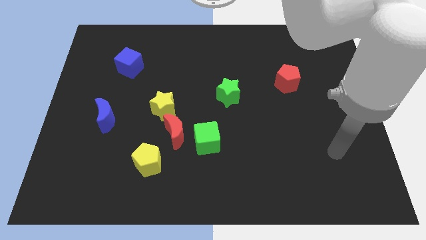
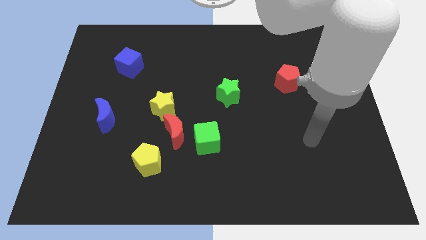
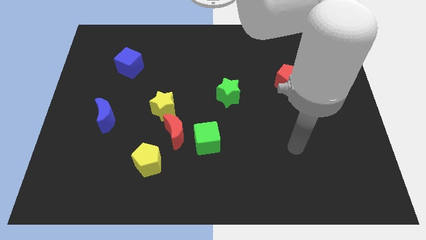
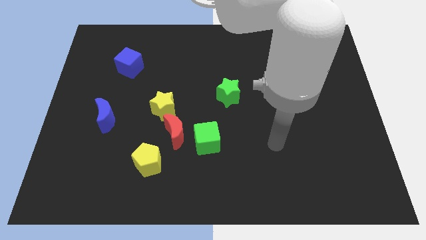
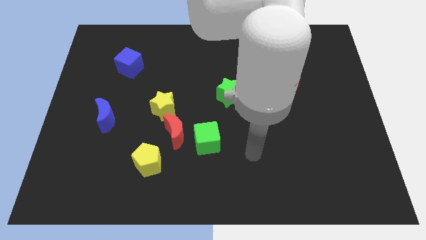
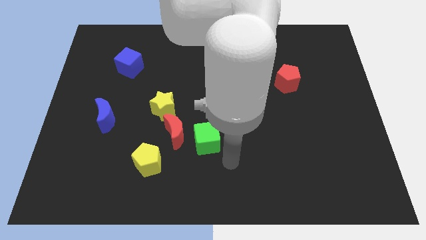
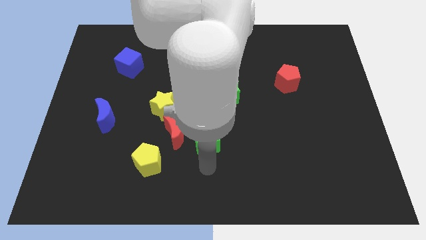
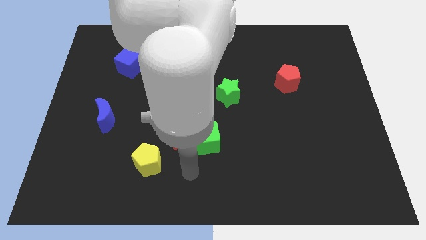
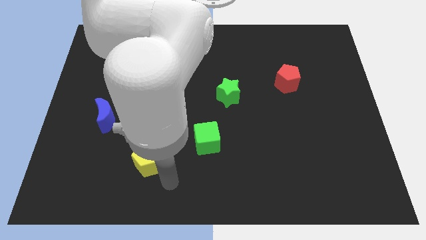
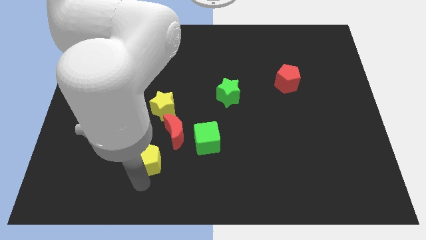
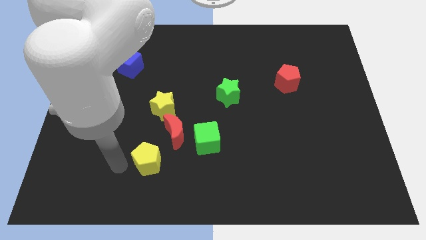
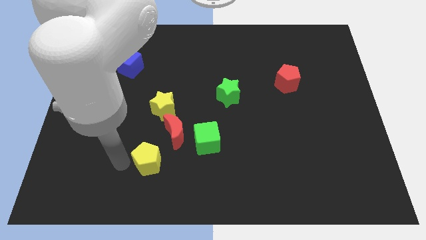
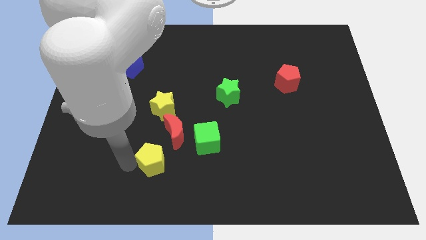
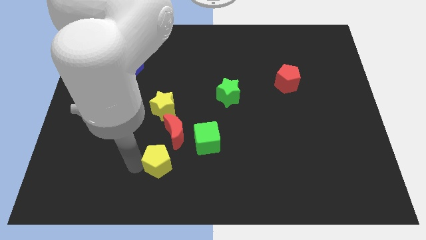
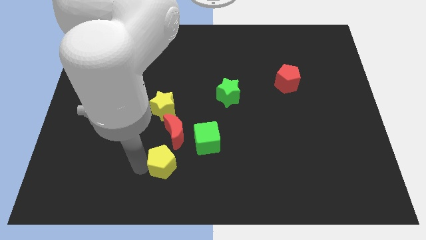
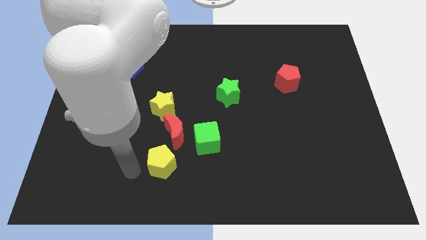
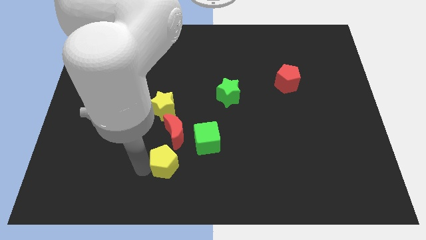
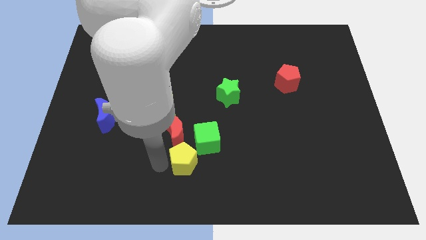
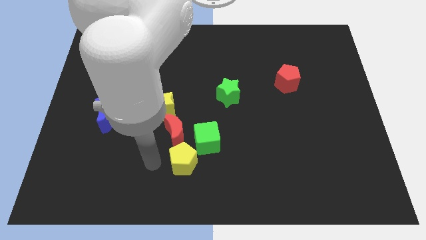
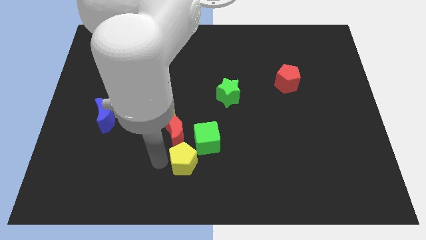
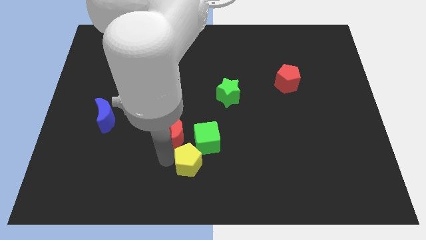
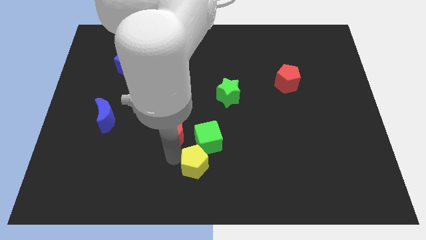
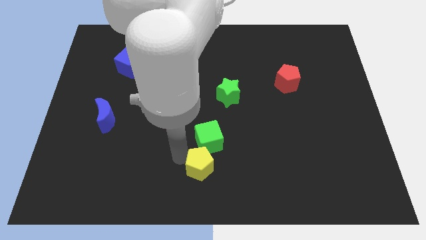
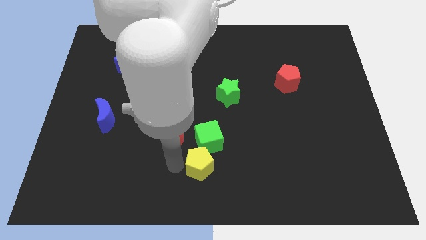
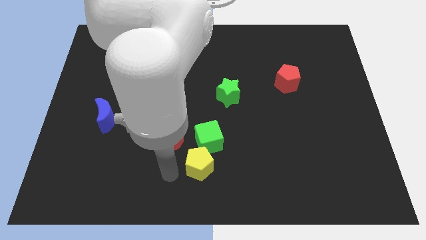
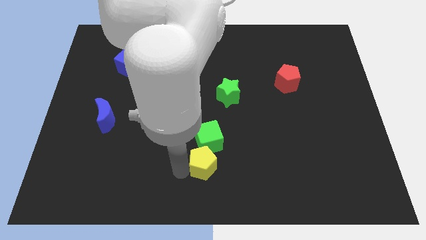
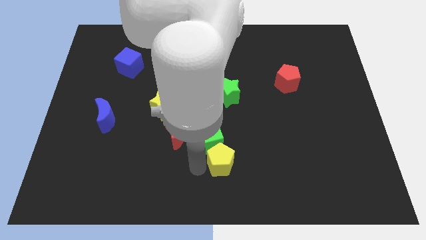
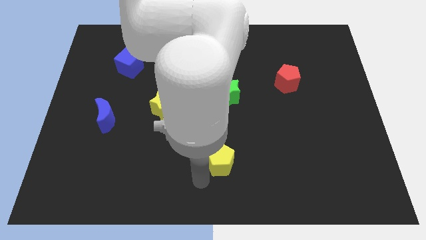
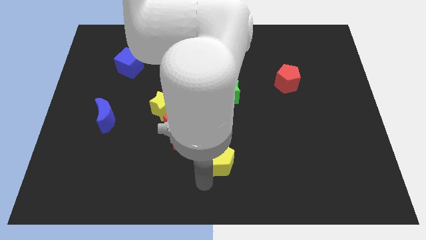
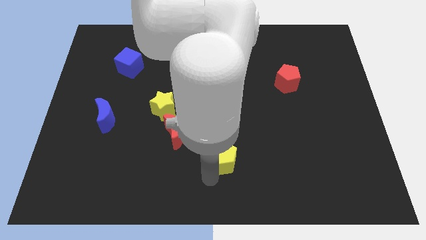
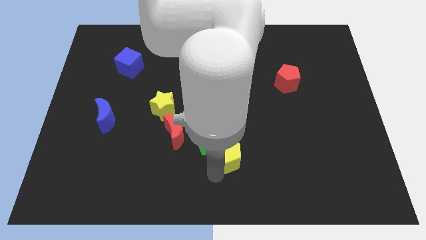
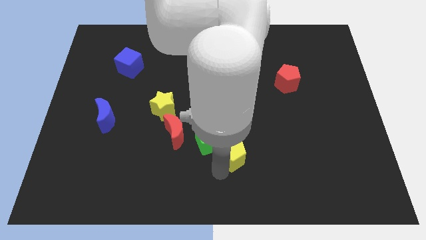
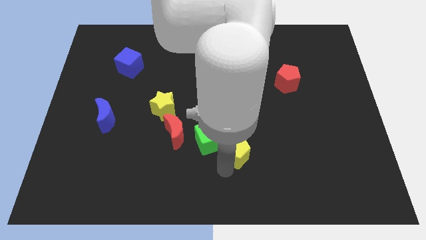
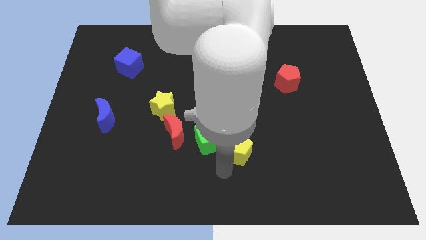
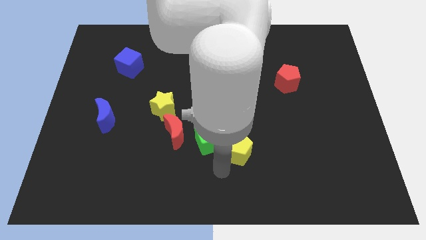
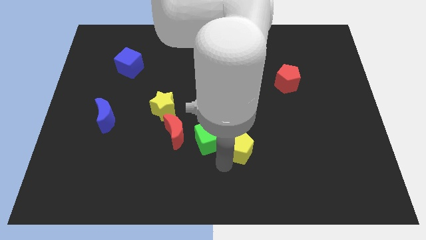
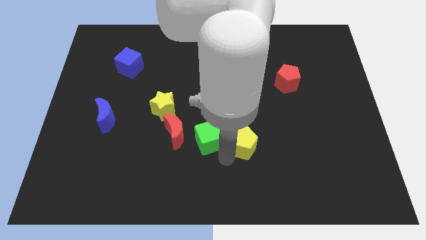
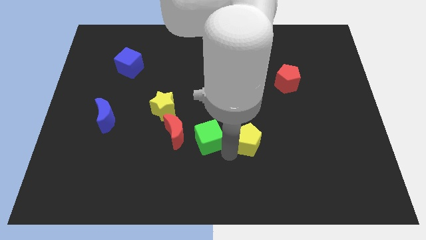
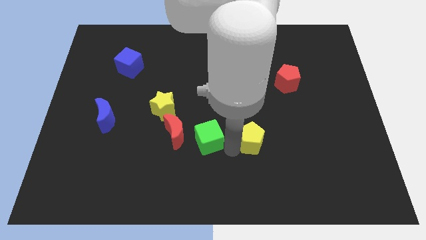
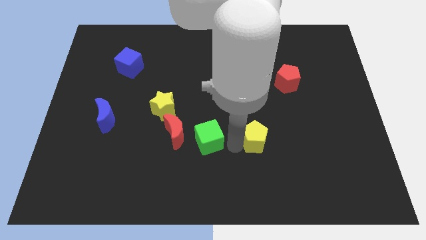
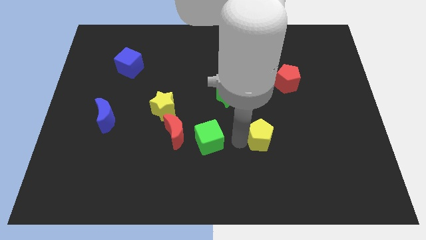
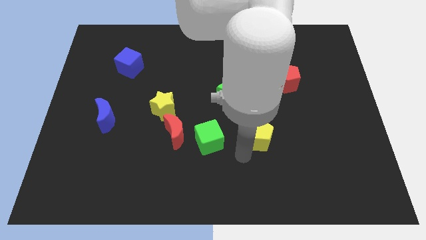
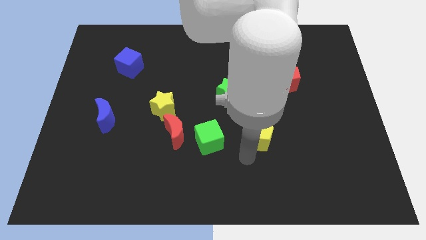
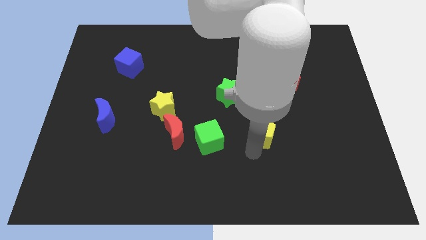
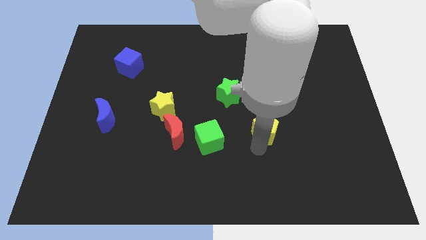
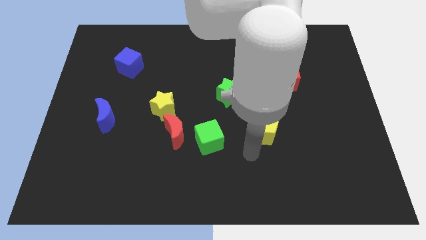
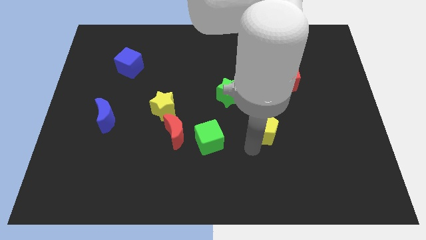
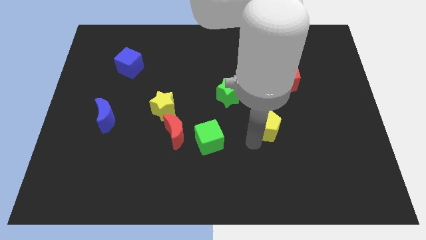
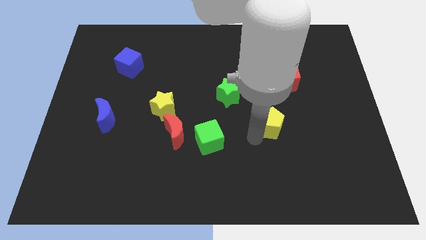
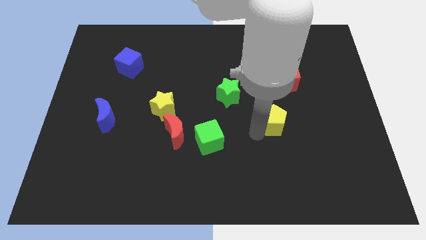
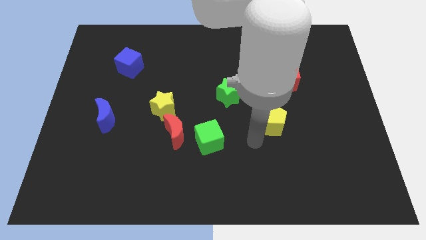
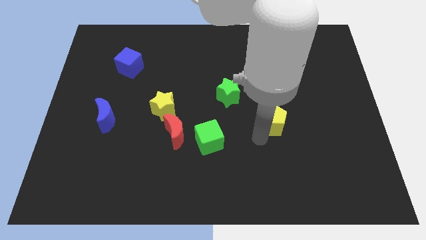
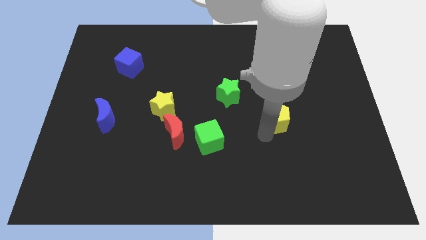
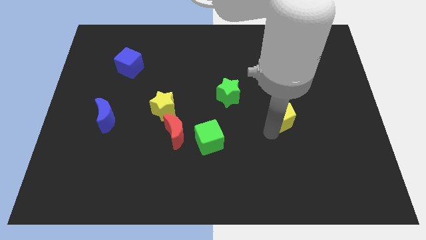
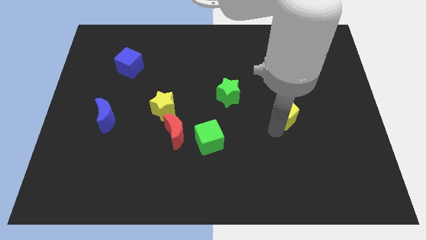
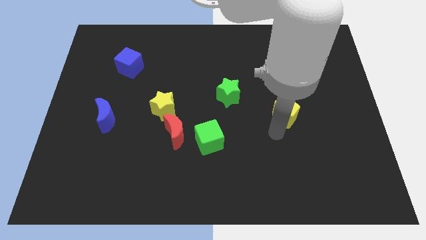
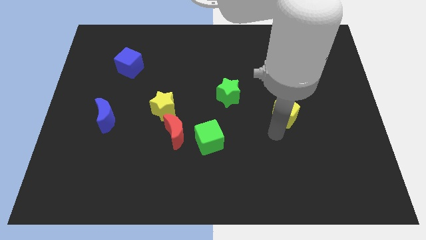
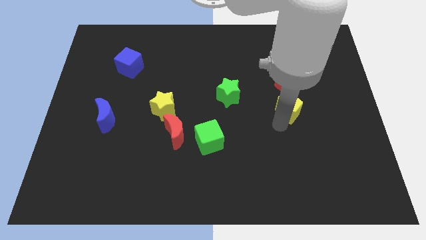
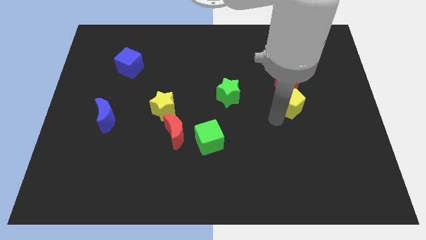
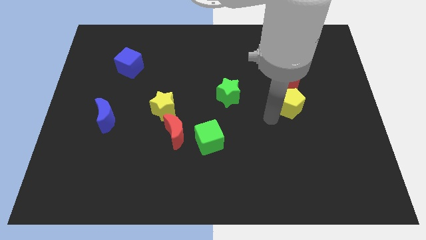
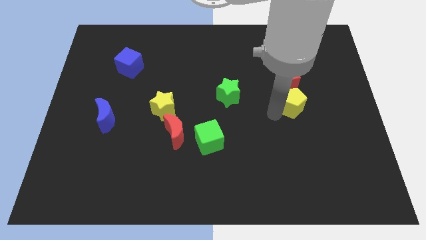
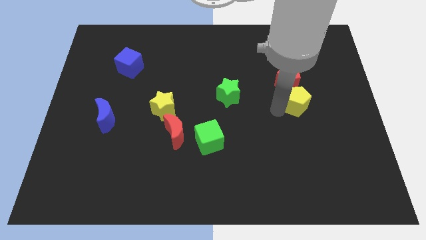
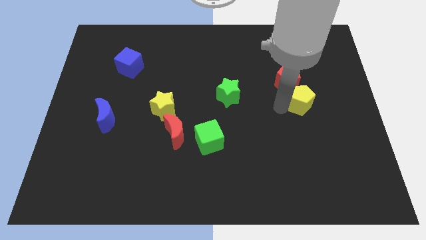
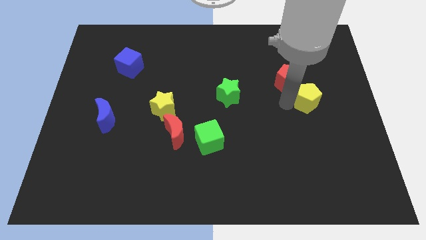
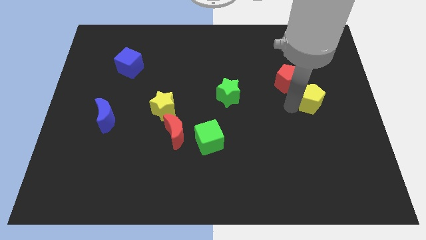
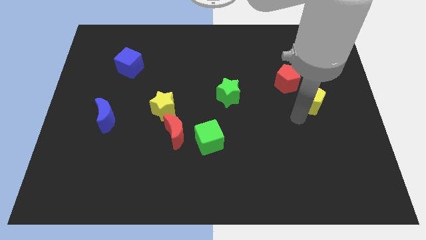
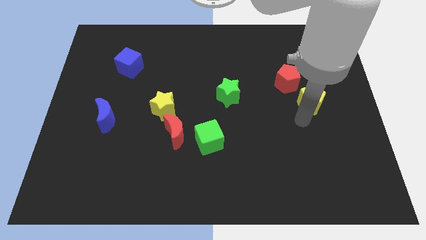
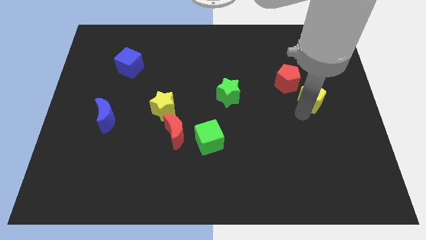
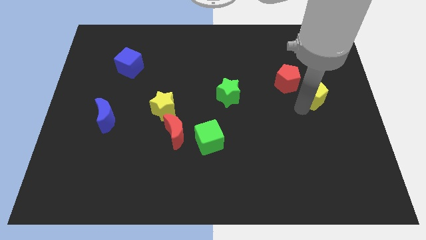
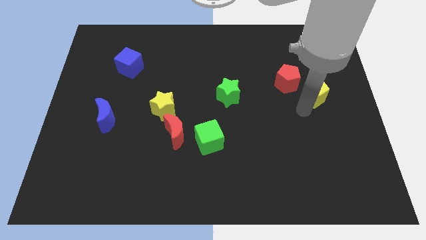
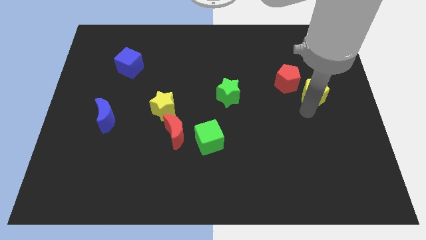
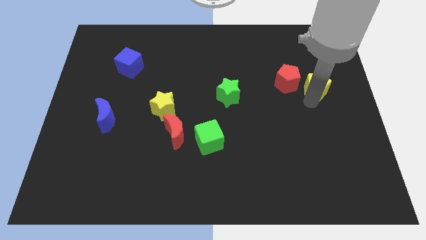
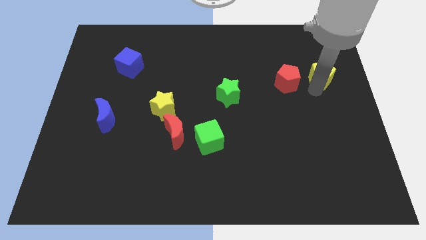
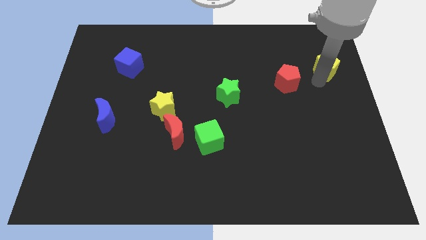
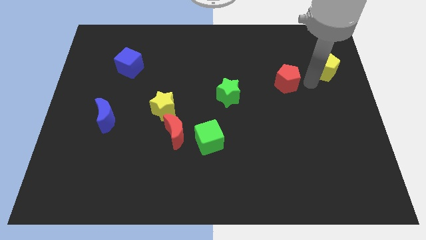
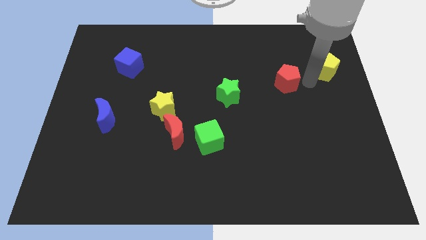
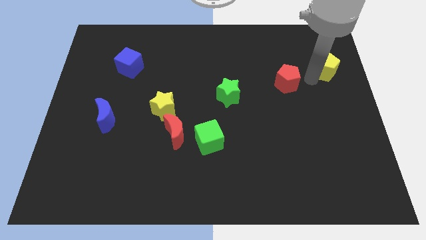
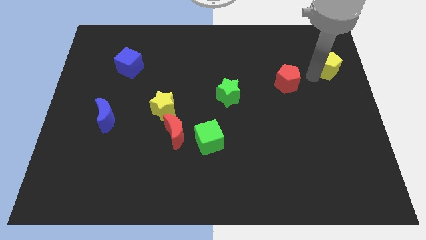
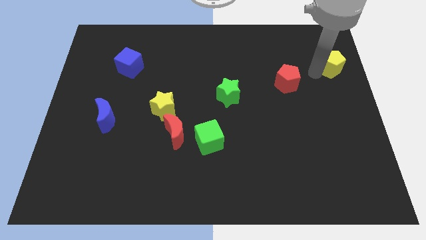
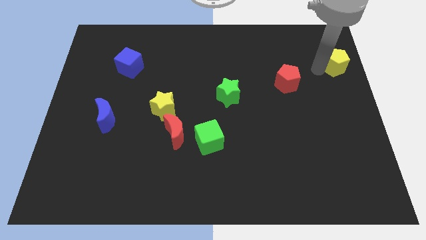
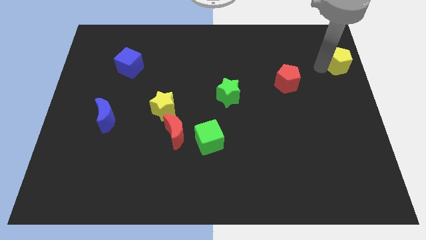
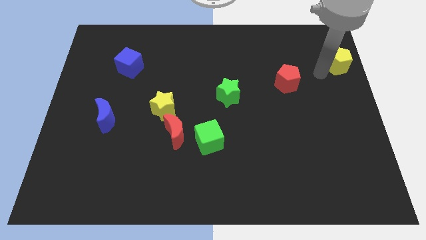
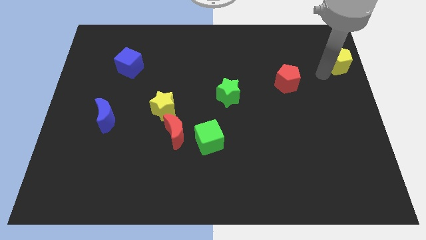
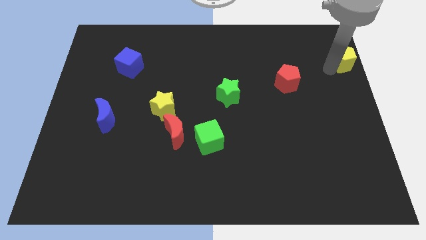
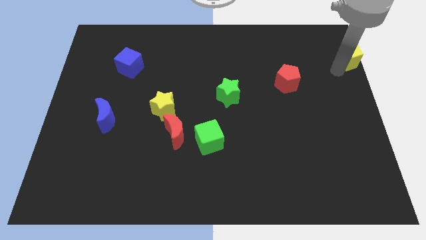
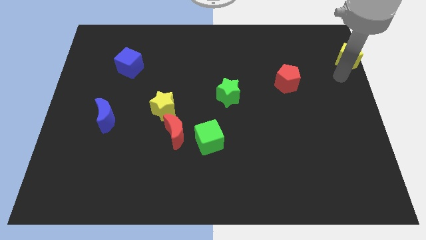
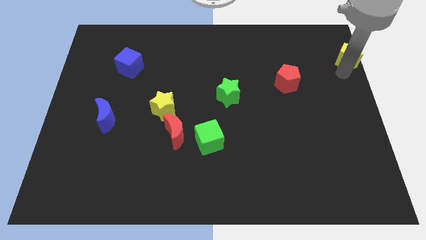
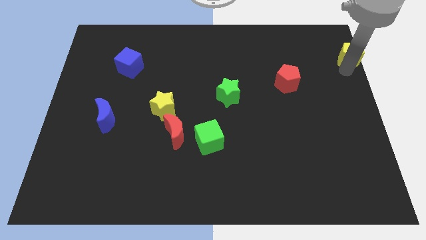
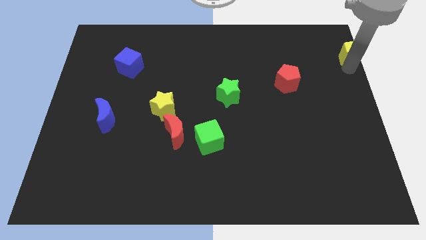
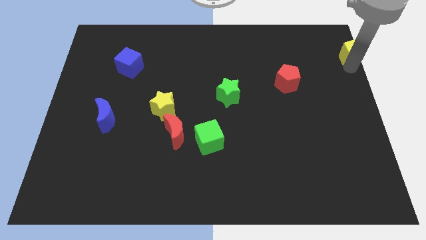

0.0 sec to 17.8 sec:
move the yellow pentagon to the top right corner
